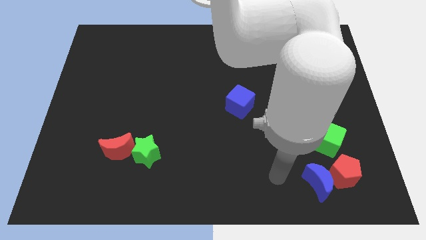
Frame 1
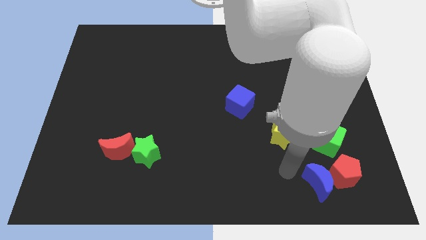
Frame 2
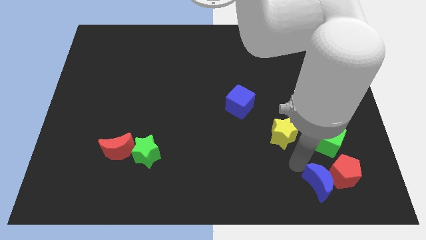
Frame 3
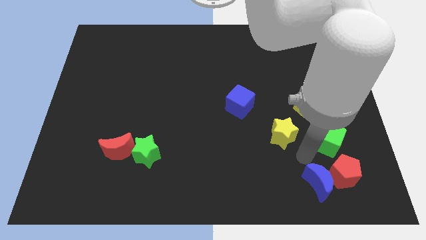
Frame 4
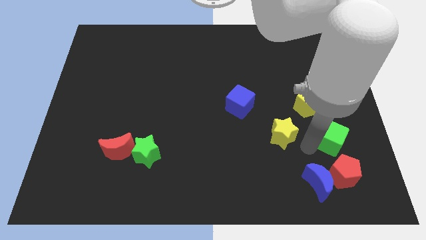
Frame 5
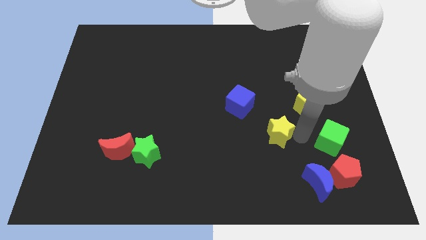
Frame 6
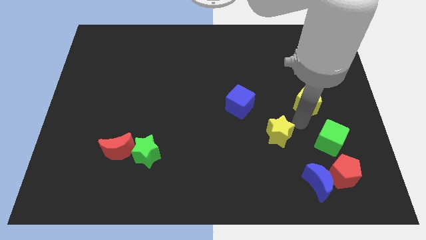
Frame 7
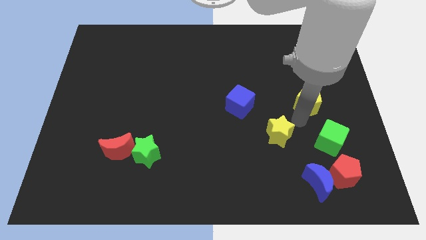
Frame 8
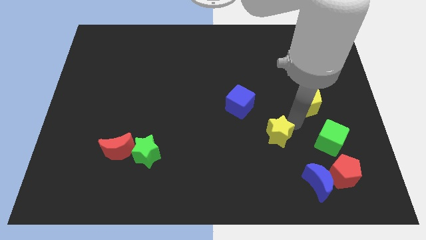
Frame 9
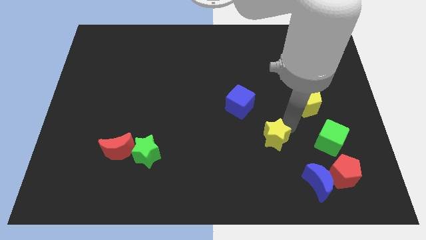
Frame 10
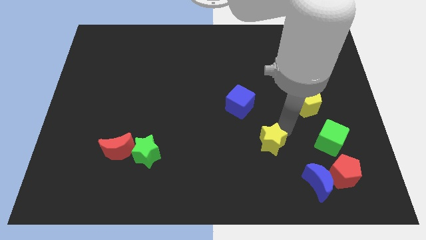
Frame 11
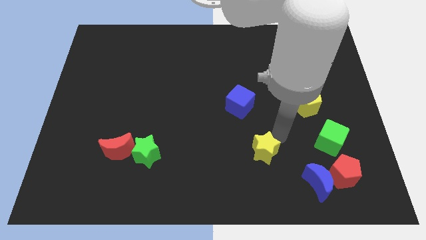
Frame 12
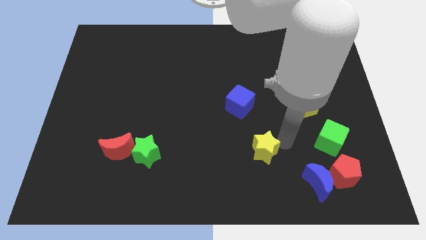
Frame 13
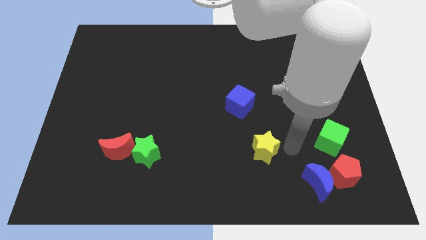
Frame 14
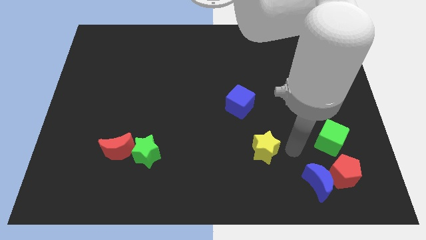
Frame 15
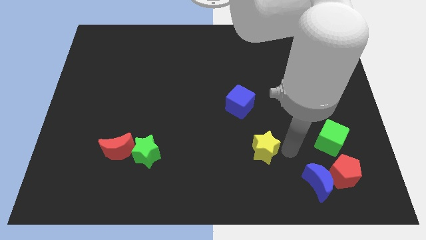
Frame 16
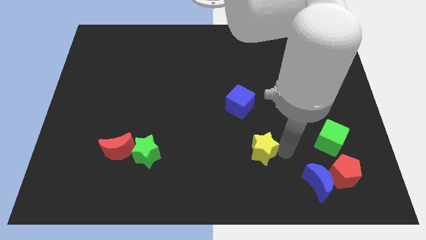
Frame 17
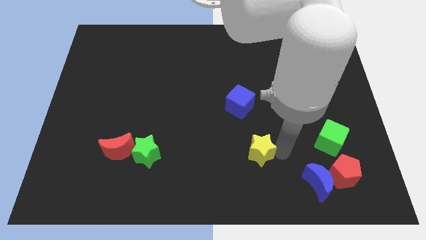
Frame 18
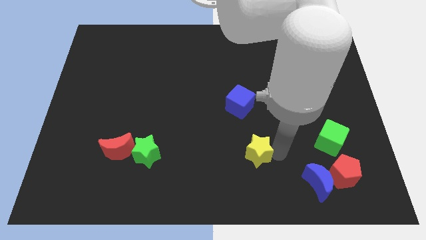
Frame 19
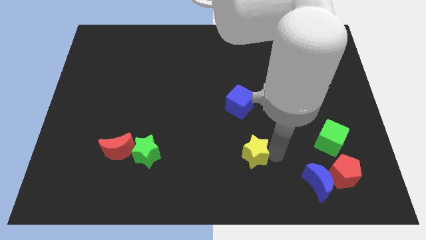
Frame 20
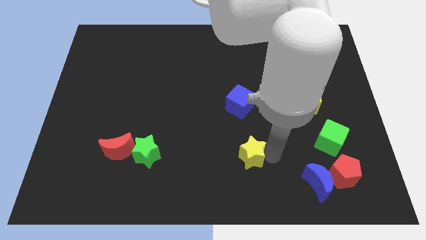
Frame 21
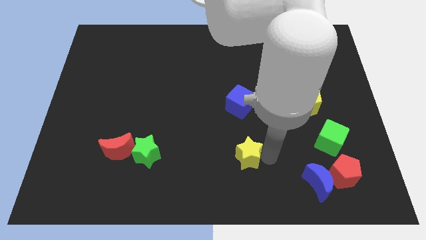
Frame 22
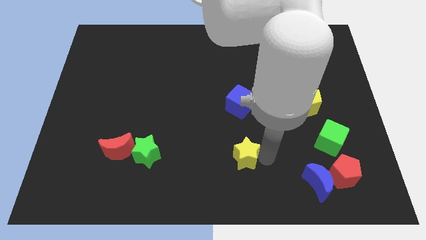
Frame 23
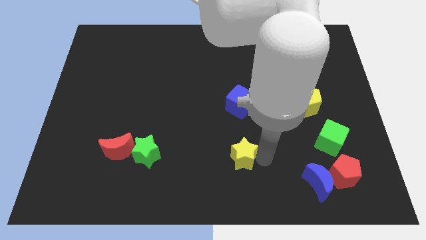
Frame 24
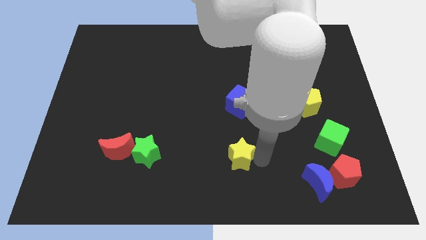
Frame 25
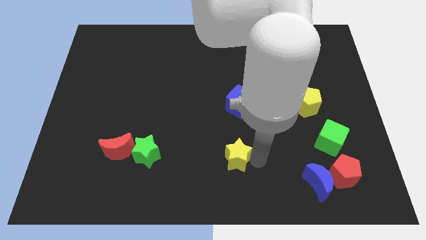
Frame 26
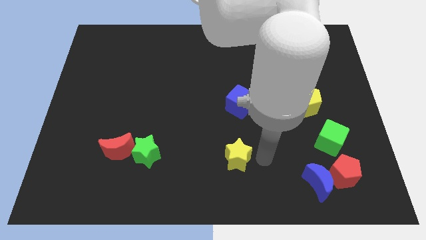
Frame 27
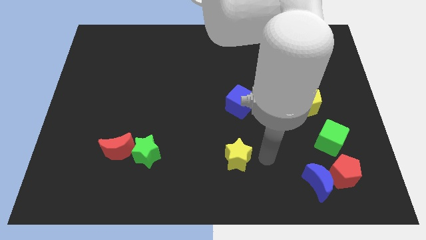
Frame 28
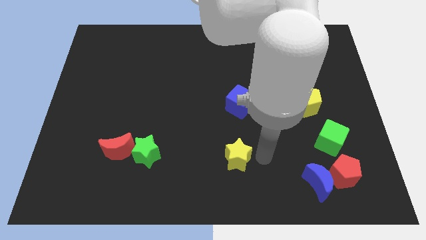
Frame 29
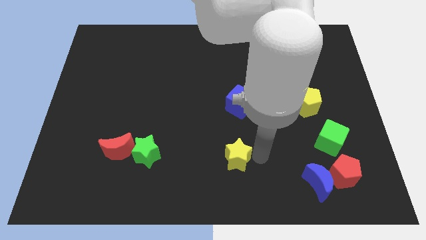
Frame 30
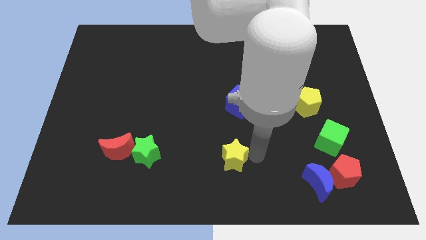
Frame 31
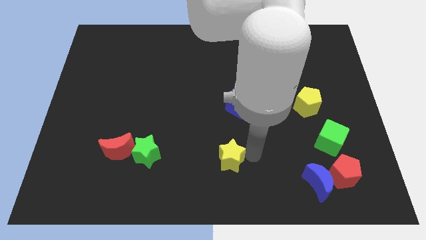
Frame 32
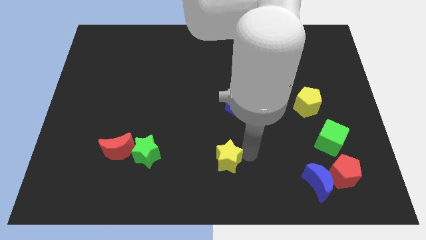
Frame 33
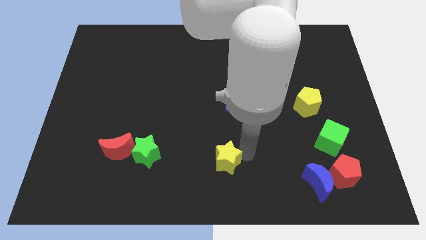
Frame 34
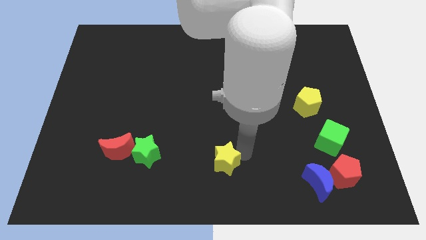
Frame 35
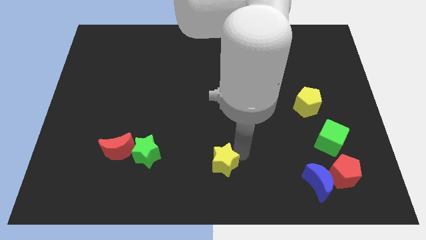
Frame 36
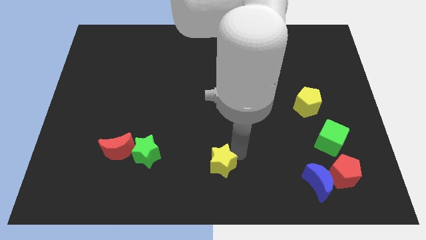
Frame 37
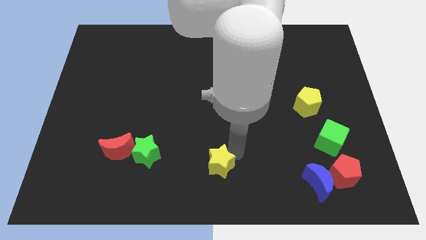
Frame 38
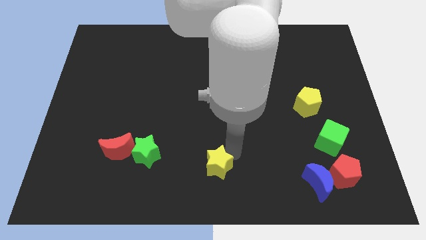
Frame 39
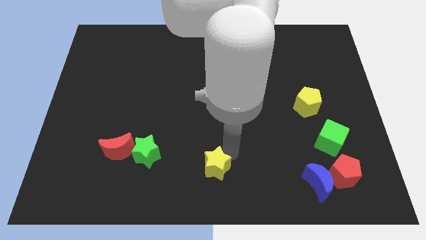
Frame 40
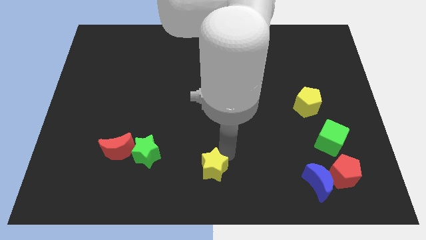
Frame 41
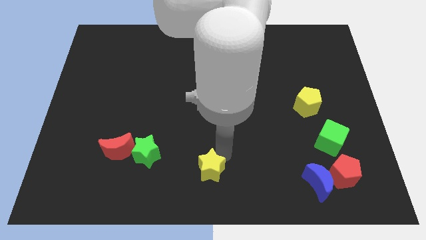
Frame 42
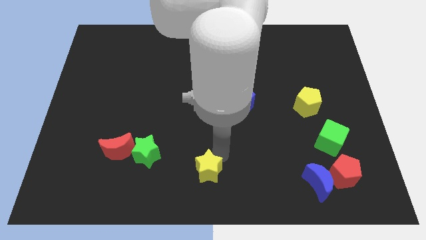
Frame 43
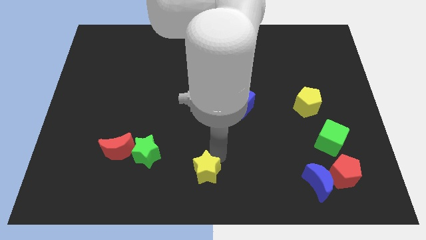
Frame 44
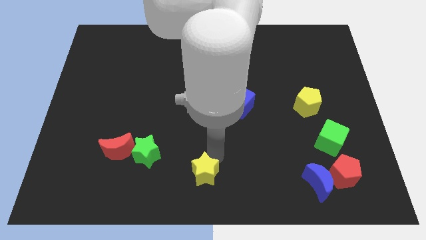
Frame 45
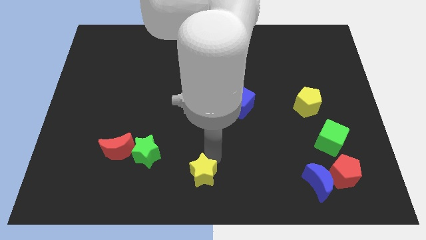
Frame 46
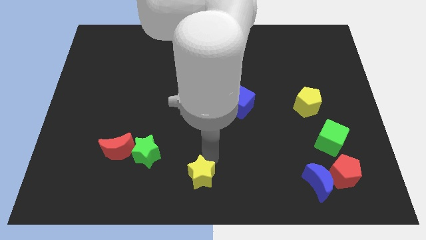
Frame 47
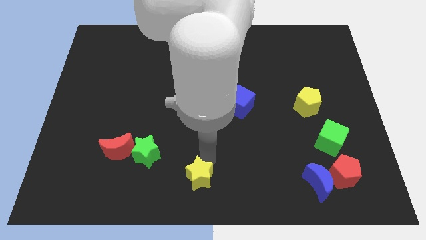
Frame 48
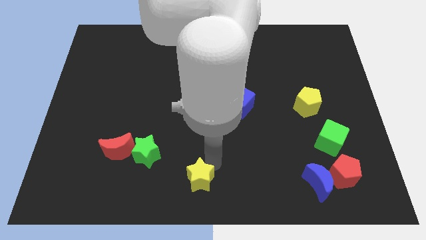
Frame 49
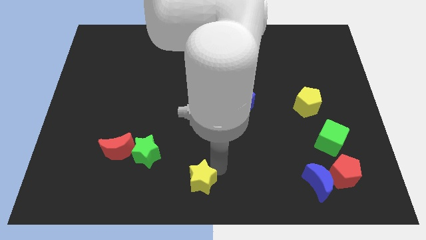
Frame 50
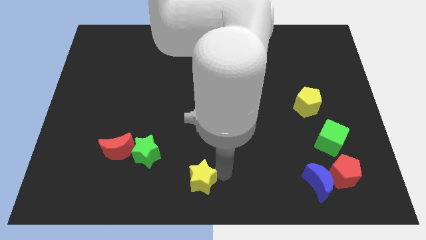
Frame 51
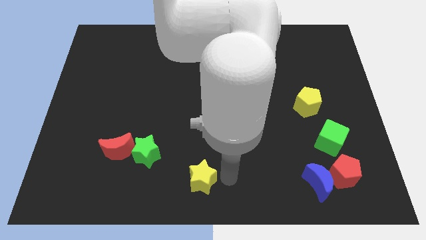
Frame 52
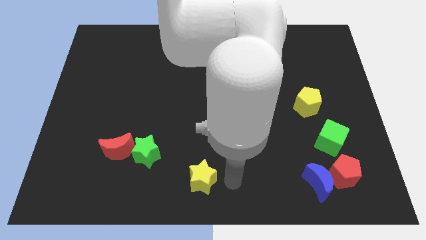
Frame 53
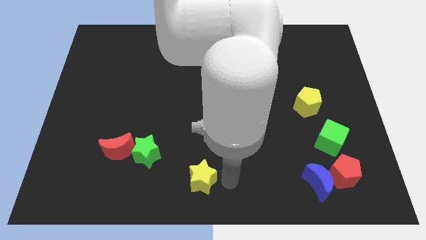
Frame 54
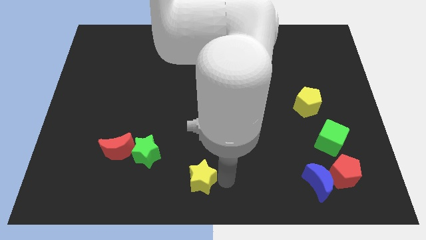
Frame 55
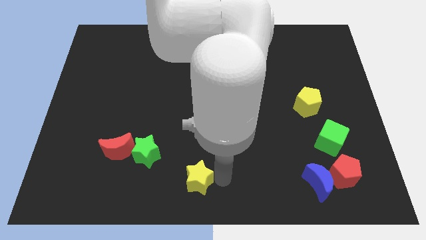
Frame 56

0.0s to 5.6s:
put the yellow star diagonally down and to the right of the green star

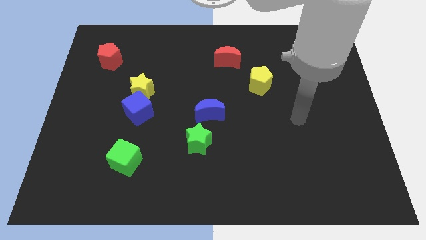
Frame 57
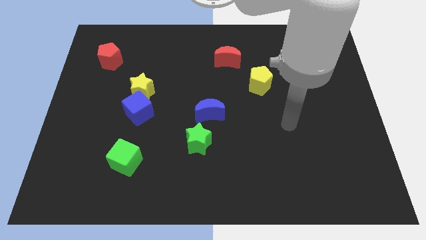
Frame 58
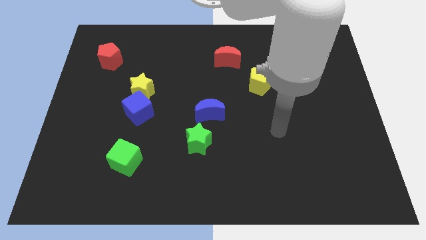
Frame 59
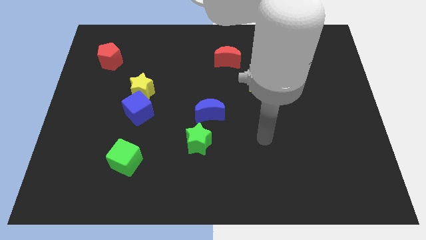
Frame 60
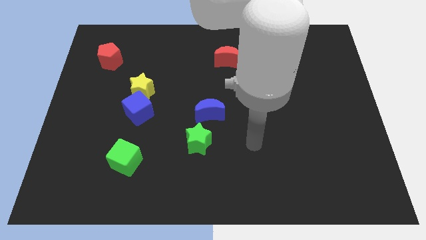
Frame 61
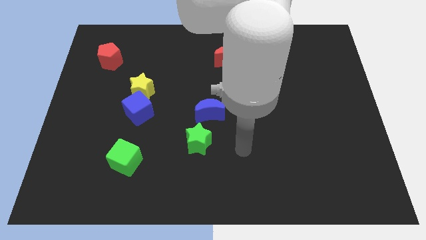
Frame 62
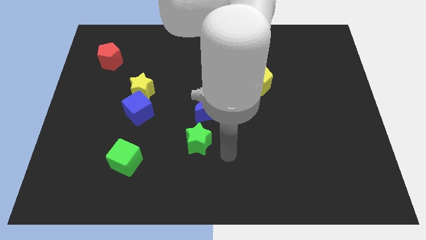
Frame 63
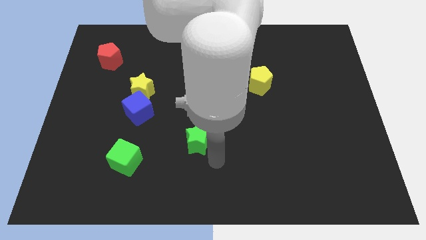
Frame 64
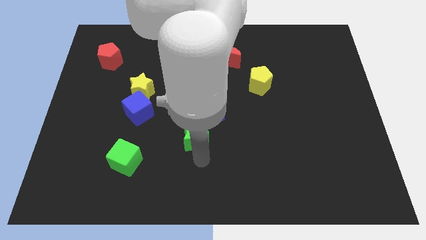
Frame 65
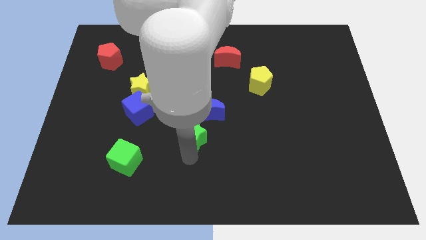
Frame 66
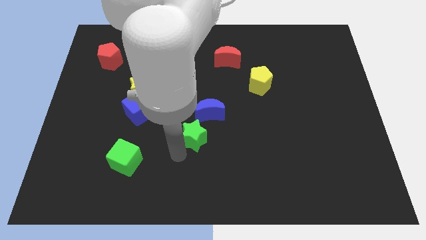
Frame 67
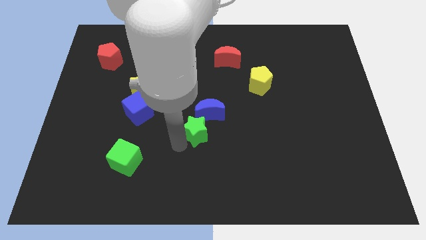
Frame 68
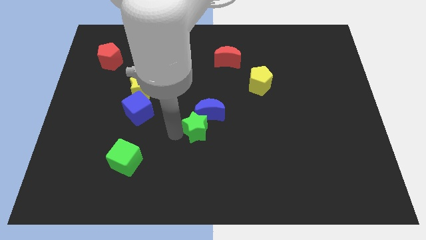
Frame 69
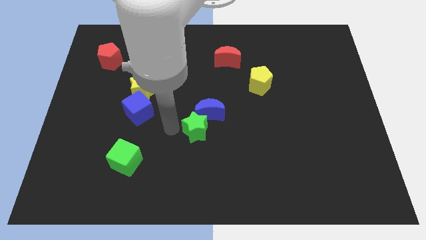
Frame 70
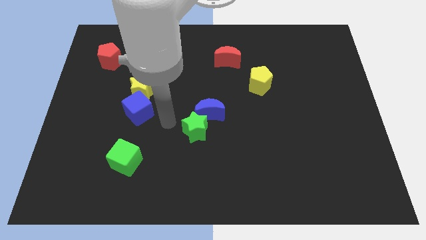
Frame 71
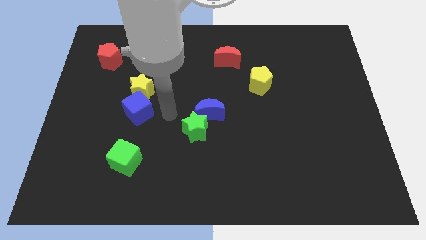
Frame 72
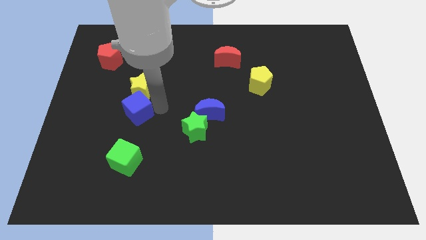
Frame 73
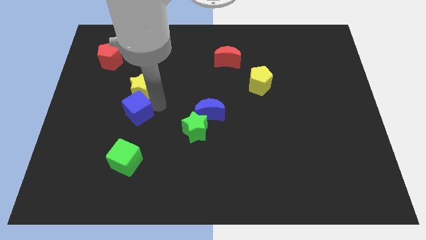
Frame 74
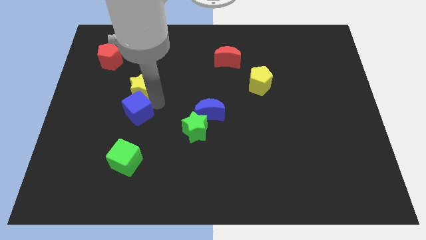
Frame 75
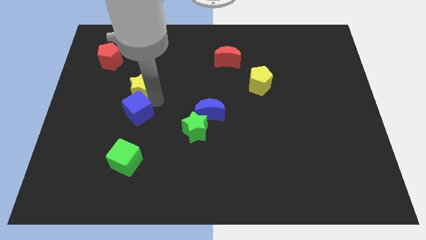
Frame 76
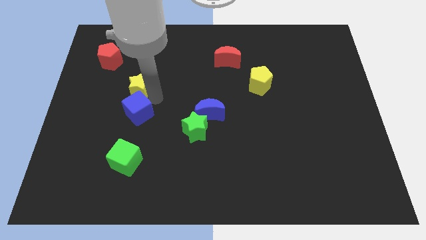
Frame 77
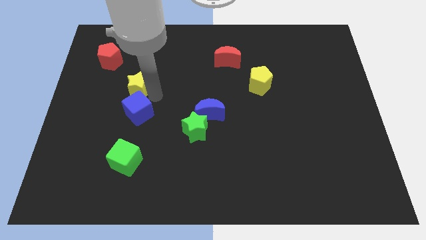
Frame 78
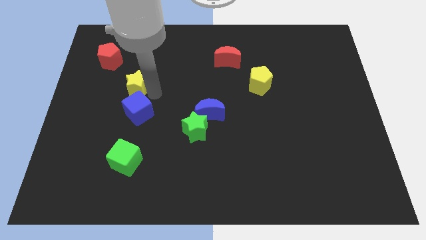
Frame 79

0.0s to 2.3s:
push the yellow star to the bottom right of the red pentagon
